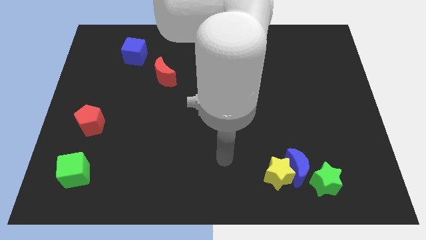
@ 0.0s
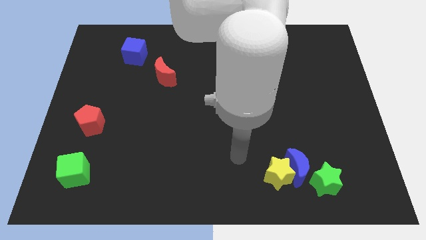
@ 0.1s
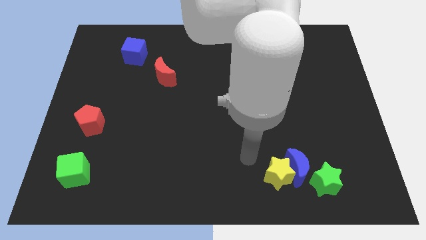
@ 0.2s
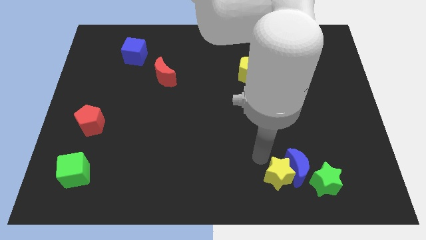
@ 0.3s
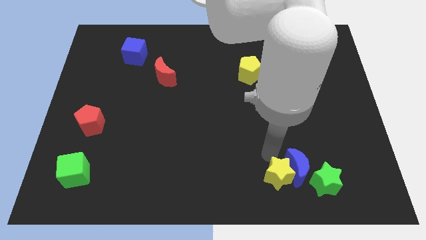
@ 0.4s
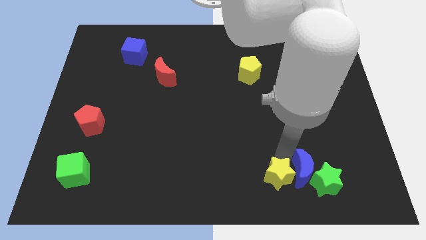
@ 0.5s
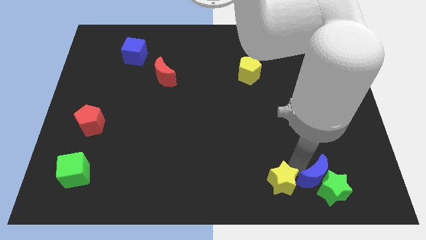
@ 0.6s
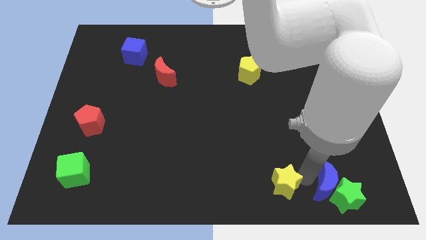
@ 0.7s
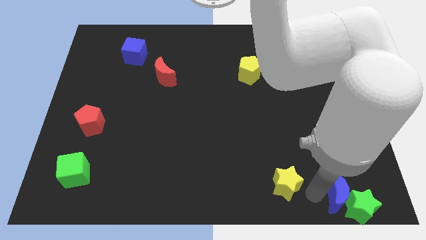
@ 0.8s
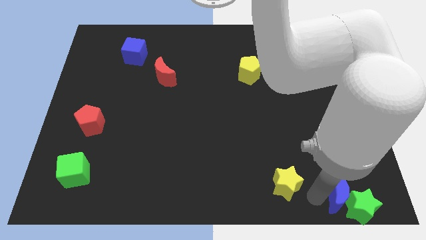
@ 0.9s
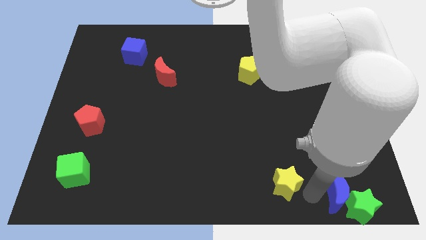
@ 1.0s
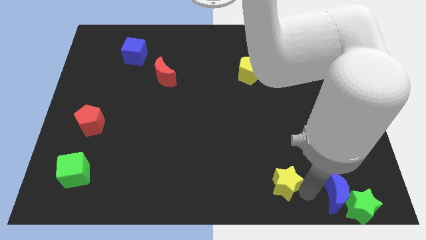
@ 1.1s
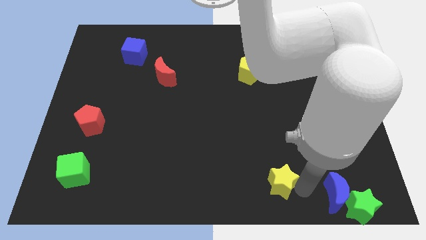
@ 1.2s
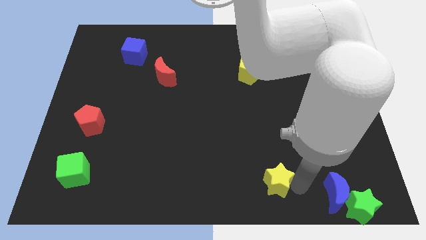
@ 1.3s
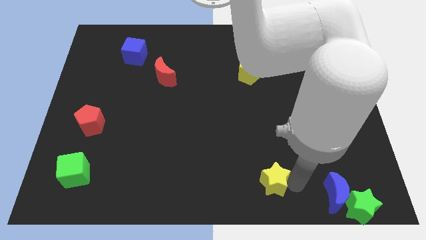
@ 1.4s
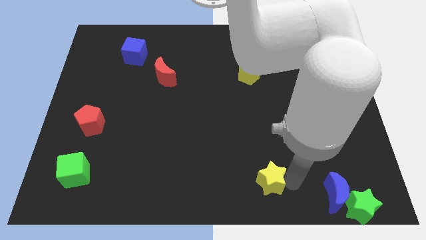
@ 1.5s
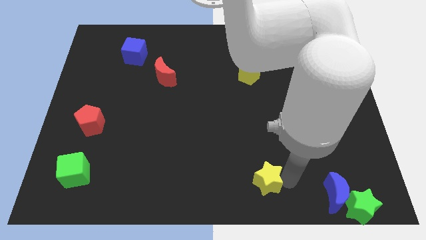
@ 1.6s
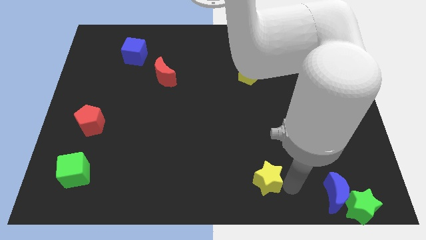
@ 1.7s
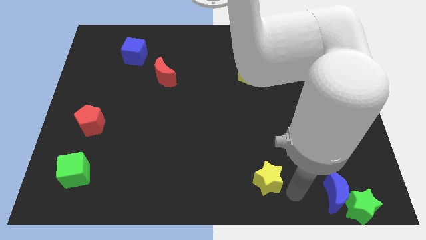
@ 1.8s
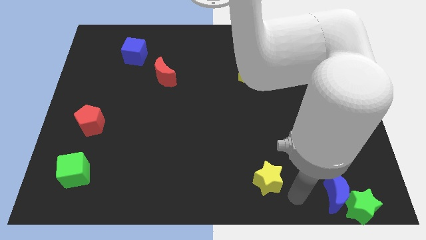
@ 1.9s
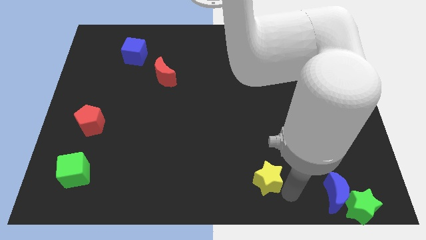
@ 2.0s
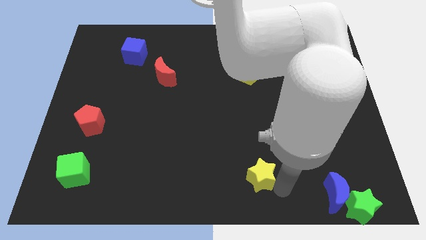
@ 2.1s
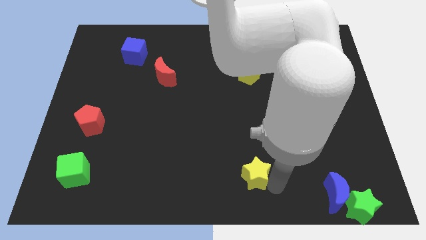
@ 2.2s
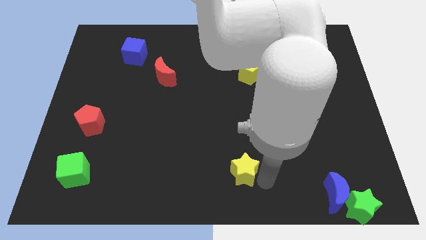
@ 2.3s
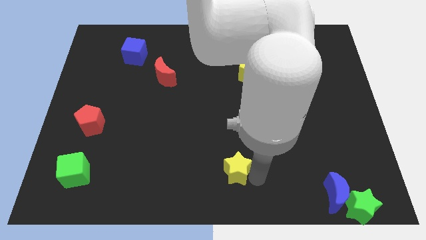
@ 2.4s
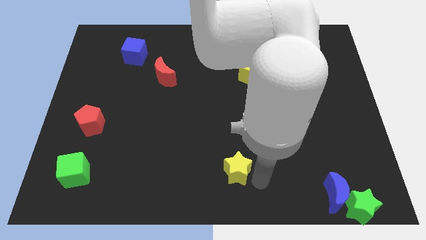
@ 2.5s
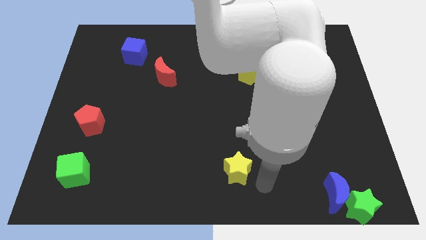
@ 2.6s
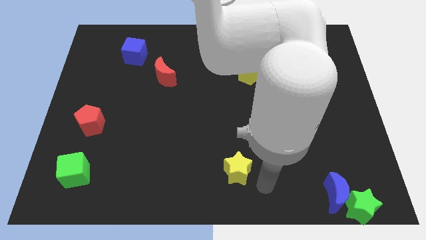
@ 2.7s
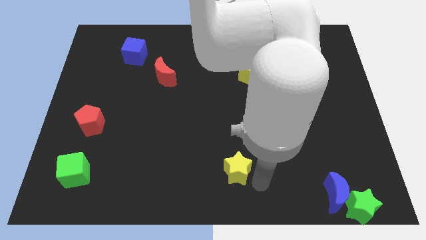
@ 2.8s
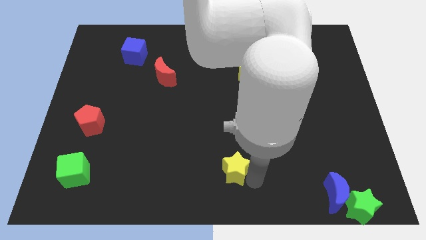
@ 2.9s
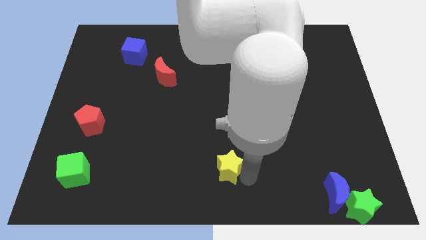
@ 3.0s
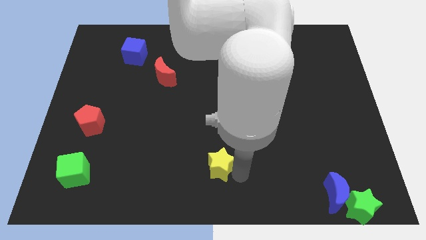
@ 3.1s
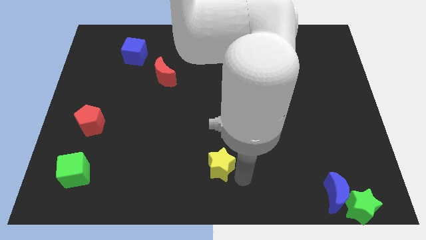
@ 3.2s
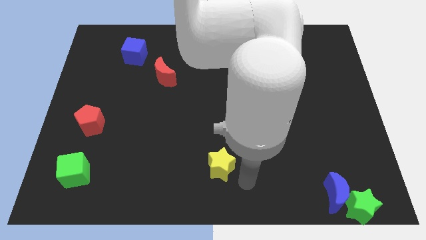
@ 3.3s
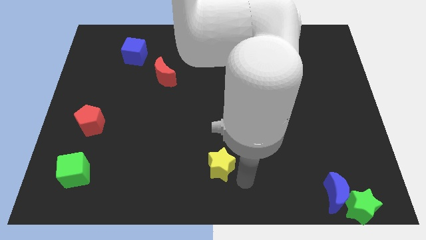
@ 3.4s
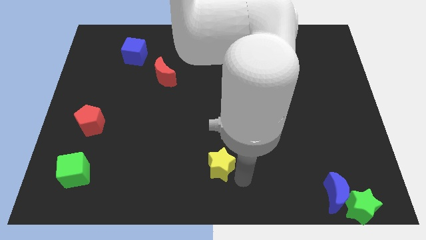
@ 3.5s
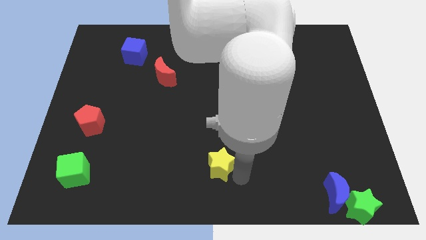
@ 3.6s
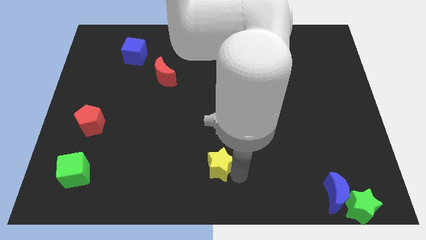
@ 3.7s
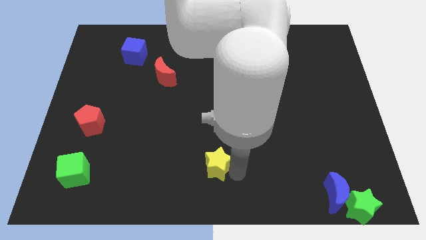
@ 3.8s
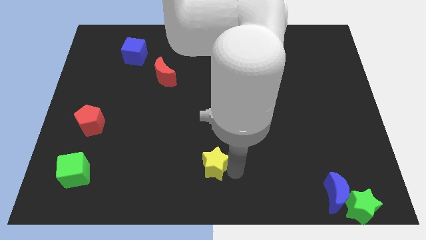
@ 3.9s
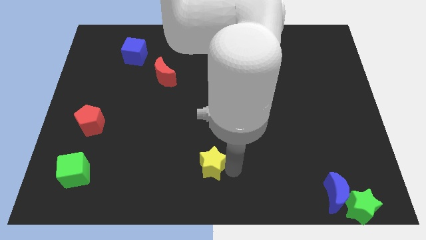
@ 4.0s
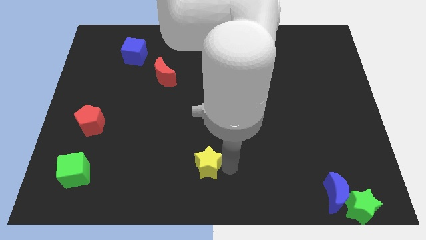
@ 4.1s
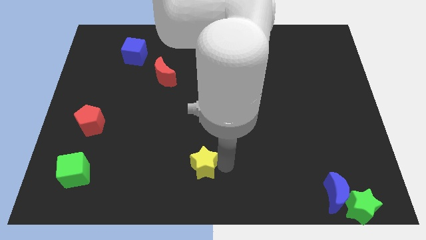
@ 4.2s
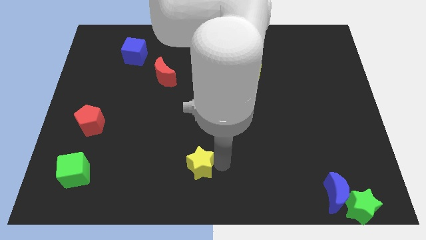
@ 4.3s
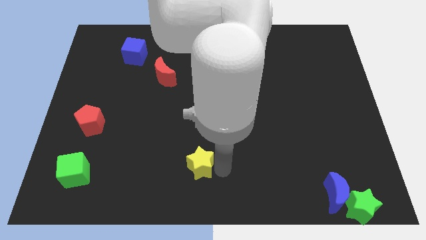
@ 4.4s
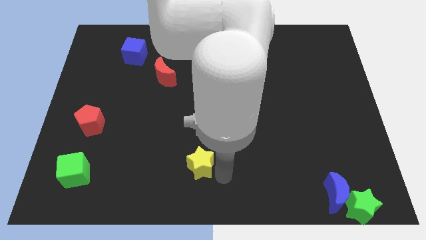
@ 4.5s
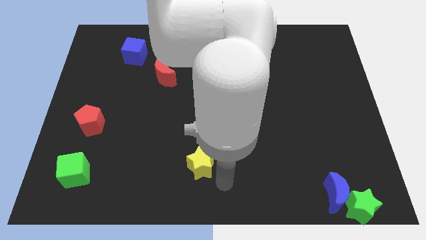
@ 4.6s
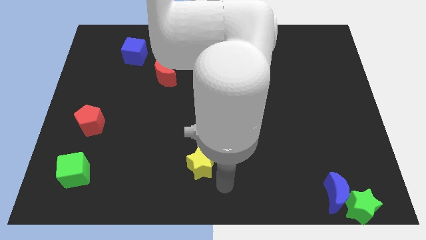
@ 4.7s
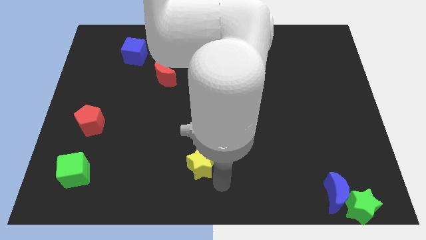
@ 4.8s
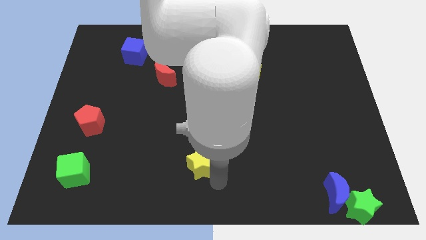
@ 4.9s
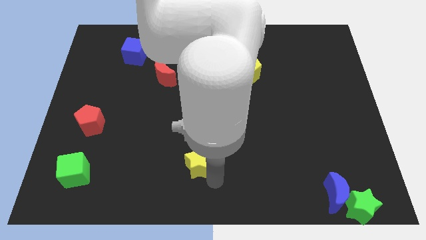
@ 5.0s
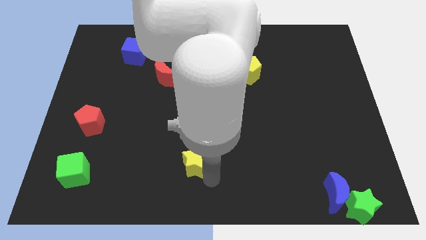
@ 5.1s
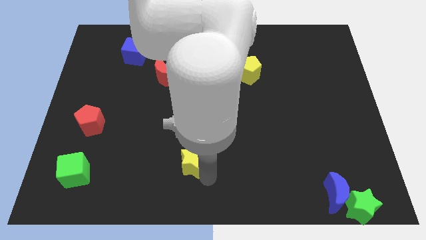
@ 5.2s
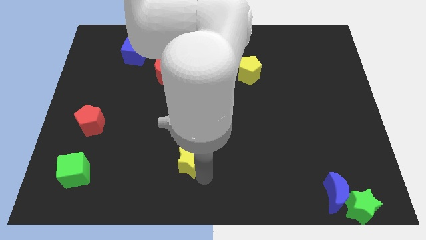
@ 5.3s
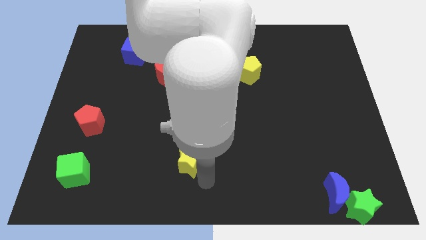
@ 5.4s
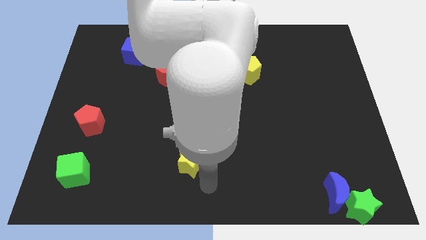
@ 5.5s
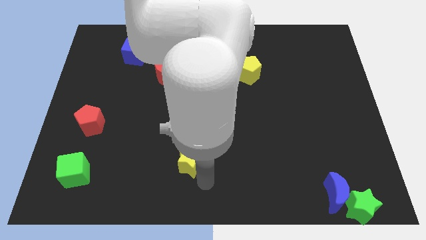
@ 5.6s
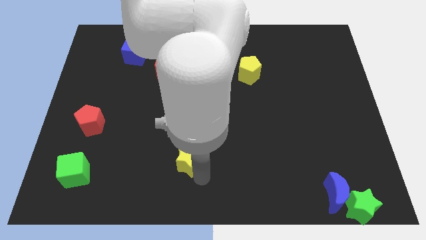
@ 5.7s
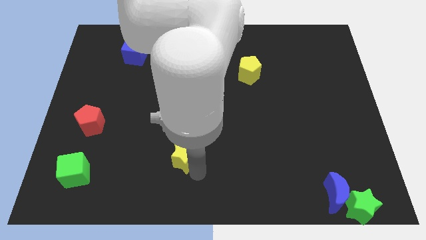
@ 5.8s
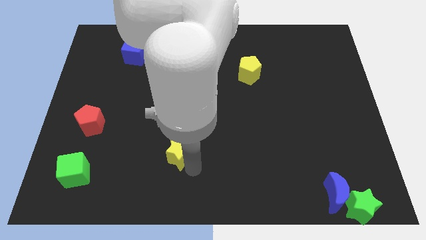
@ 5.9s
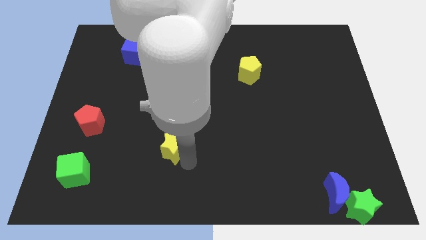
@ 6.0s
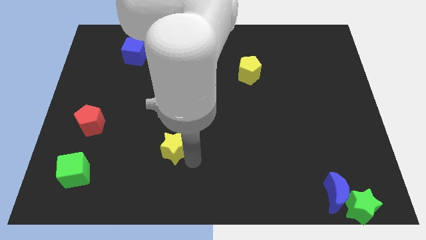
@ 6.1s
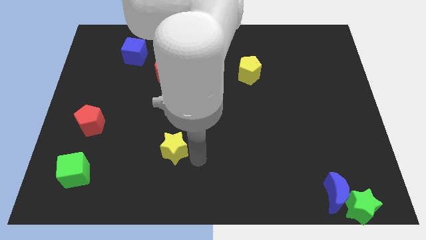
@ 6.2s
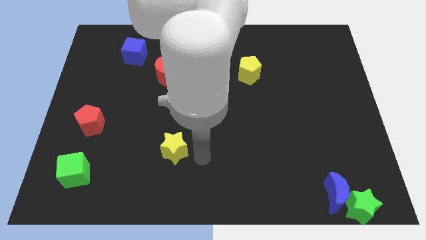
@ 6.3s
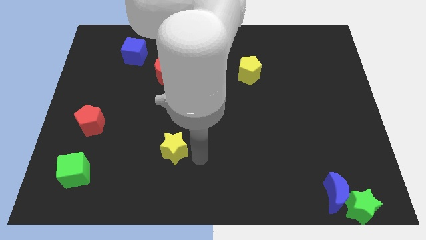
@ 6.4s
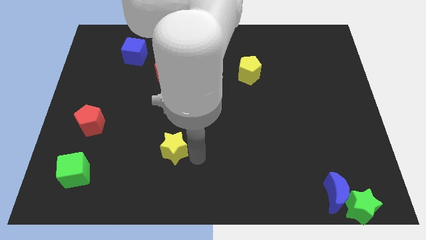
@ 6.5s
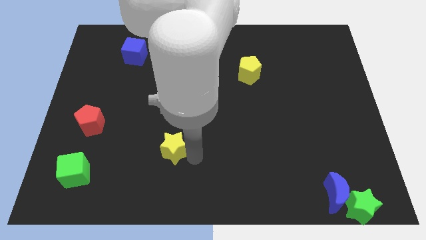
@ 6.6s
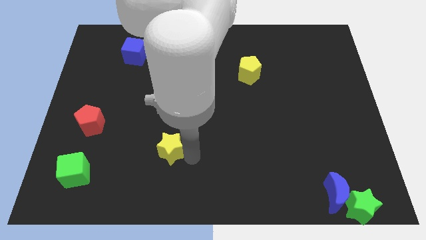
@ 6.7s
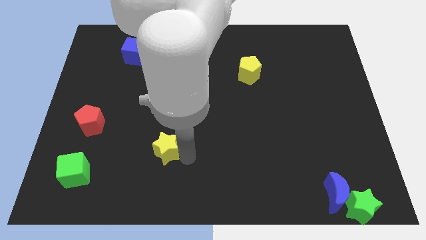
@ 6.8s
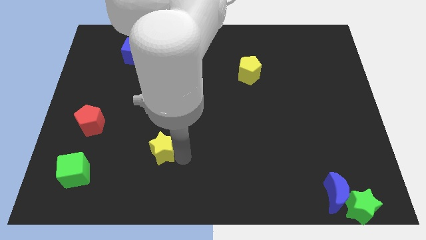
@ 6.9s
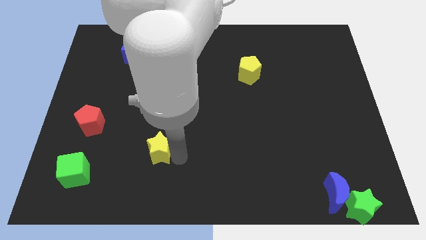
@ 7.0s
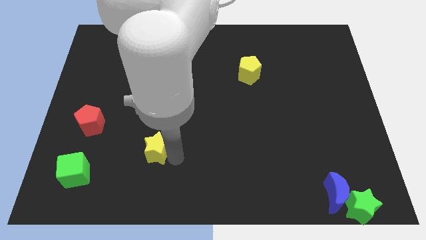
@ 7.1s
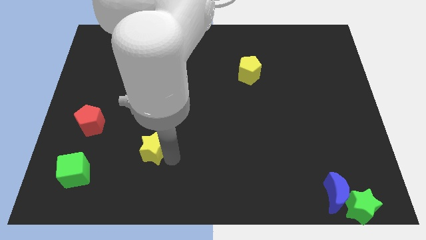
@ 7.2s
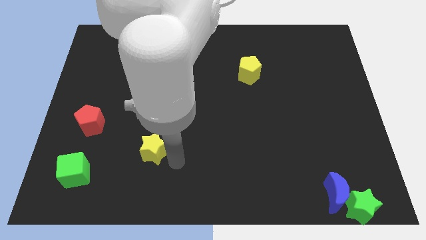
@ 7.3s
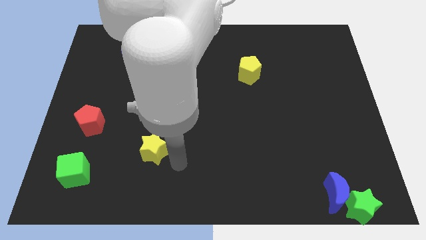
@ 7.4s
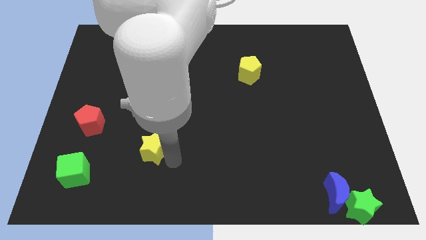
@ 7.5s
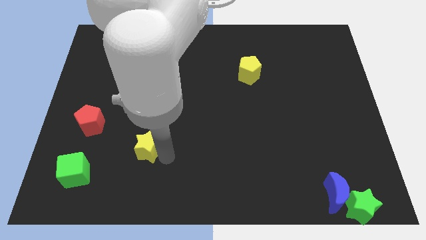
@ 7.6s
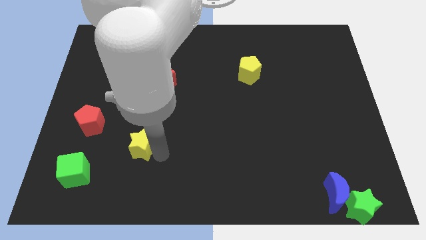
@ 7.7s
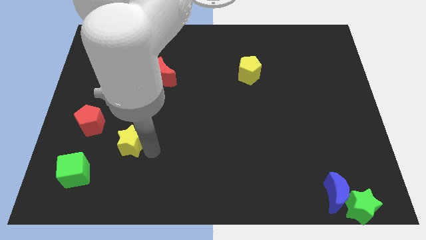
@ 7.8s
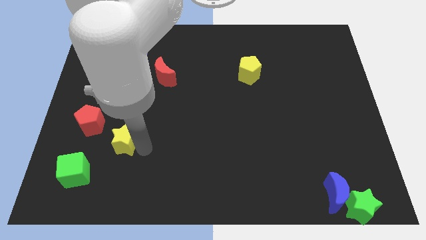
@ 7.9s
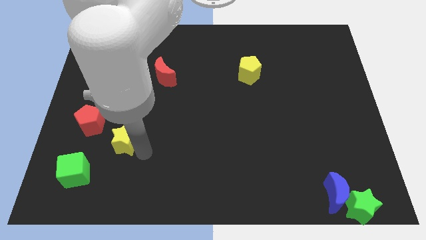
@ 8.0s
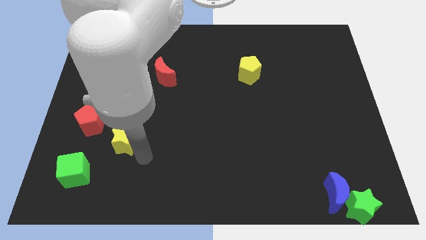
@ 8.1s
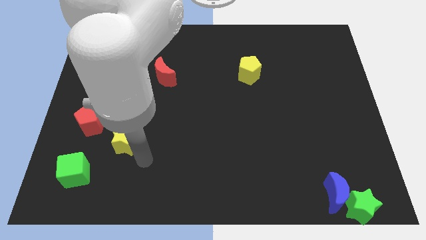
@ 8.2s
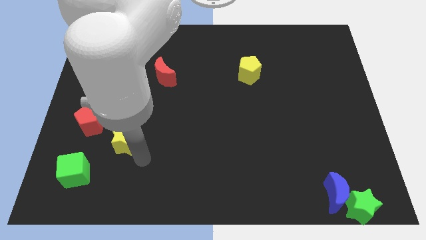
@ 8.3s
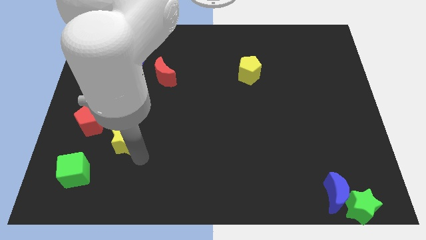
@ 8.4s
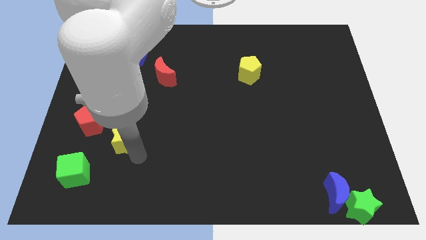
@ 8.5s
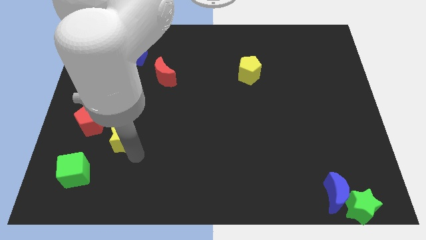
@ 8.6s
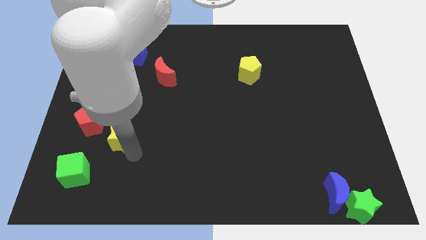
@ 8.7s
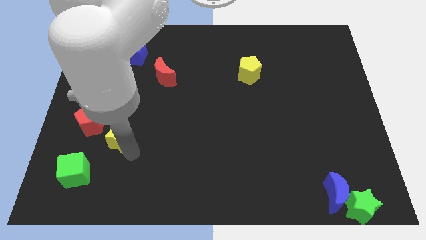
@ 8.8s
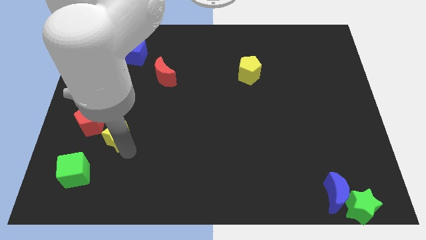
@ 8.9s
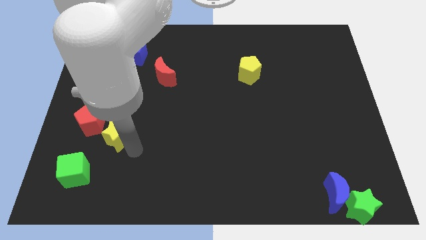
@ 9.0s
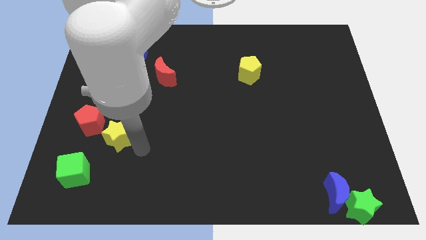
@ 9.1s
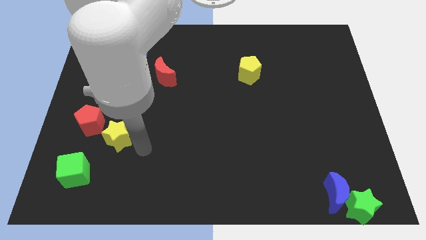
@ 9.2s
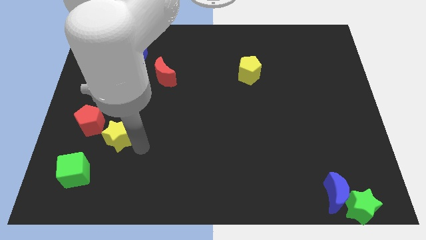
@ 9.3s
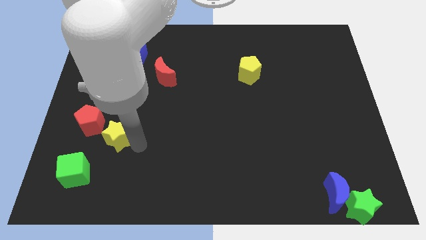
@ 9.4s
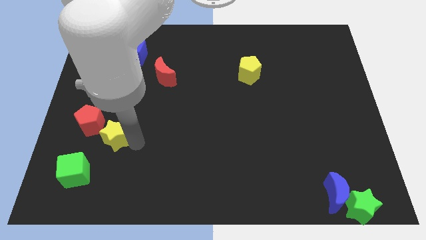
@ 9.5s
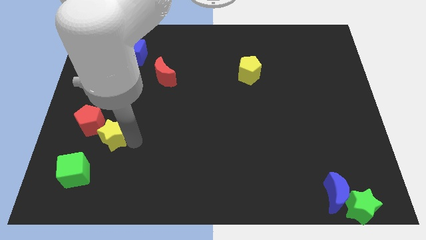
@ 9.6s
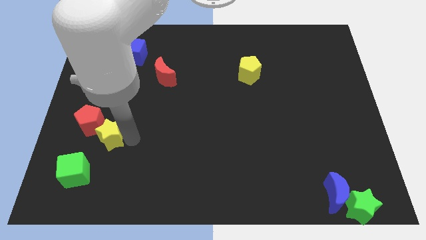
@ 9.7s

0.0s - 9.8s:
move the yellow star towards the red pentagon
